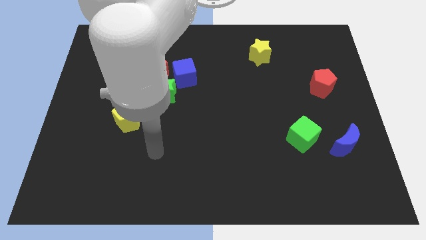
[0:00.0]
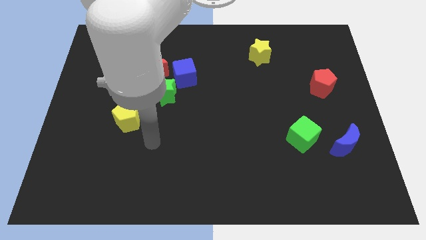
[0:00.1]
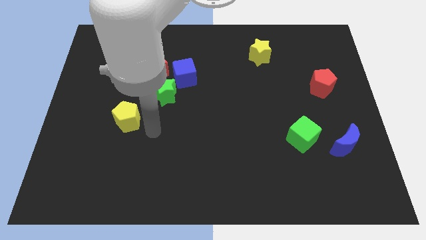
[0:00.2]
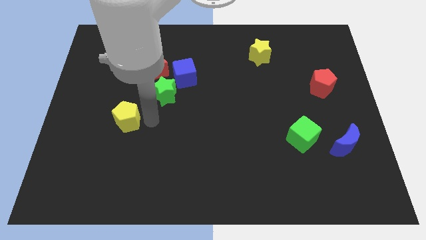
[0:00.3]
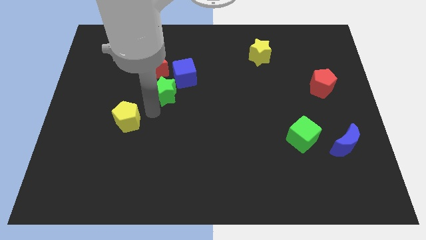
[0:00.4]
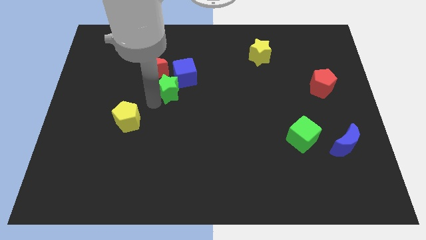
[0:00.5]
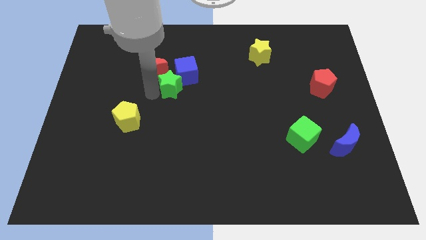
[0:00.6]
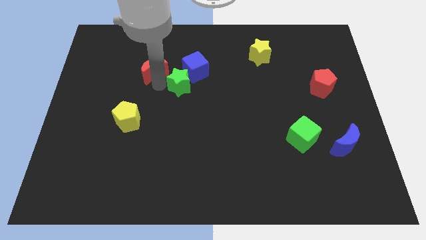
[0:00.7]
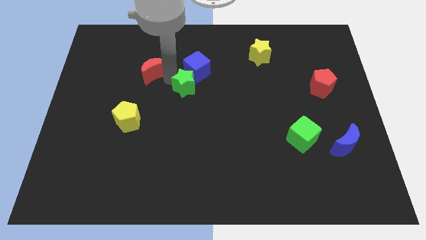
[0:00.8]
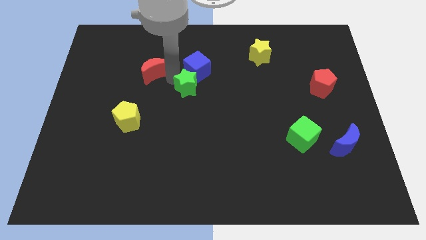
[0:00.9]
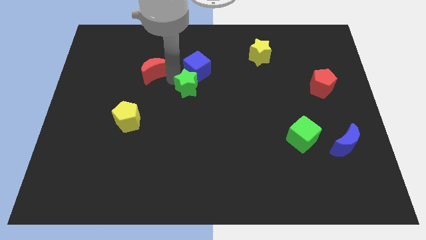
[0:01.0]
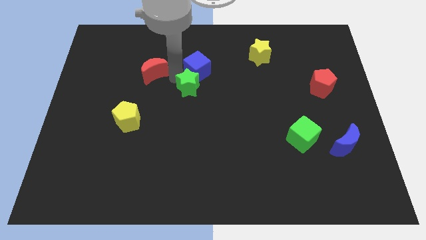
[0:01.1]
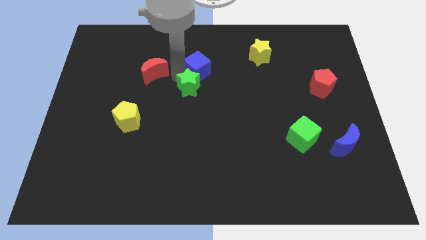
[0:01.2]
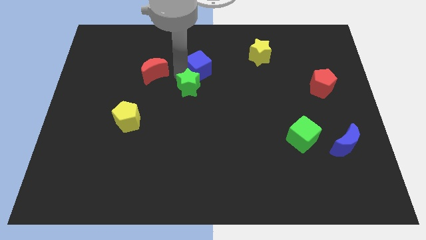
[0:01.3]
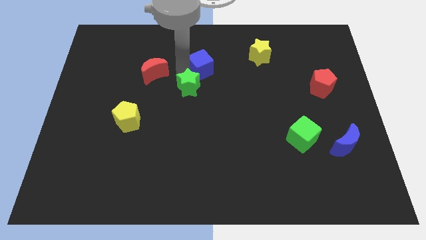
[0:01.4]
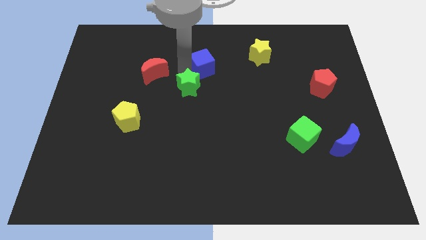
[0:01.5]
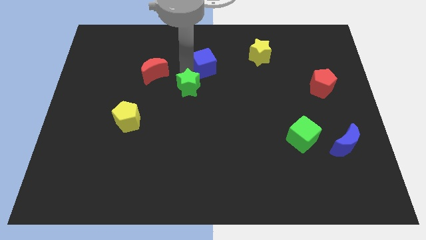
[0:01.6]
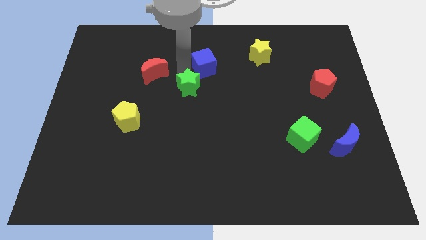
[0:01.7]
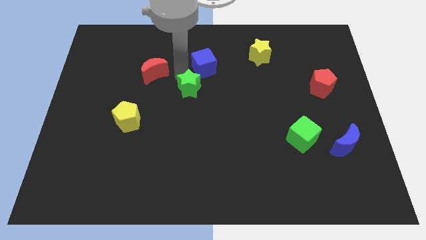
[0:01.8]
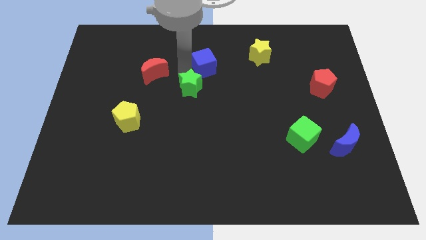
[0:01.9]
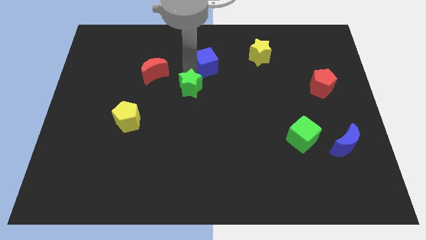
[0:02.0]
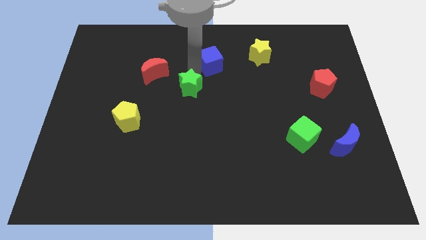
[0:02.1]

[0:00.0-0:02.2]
separate the blue cube from the green star and red moon

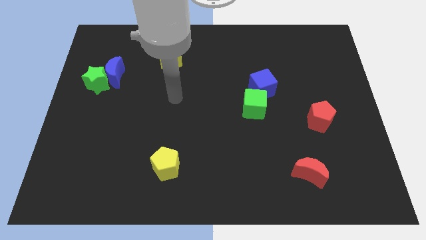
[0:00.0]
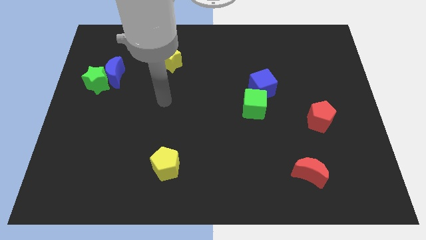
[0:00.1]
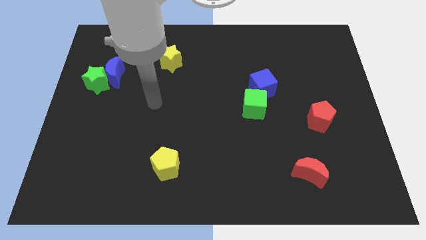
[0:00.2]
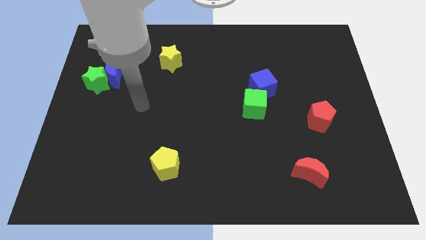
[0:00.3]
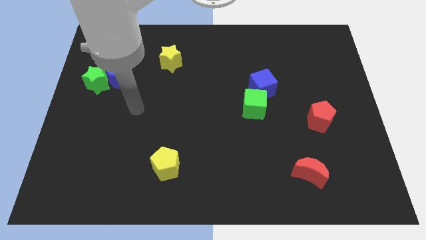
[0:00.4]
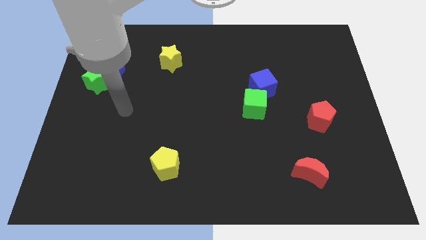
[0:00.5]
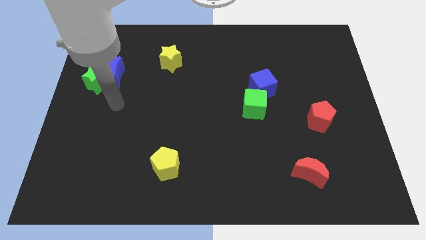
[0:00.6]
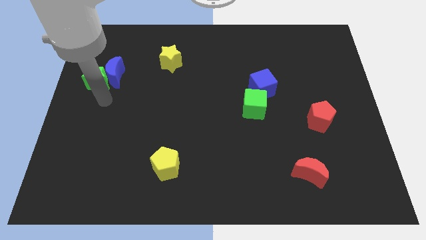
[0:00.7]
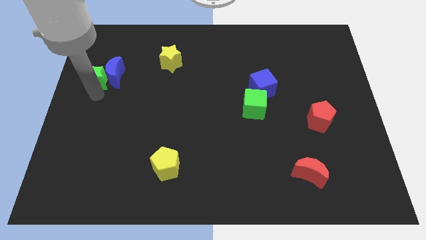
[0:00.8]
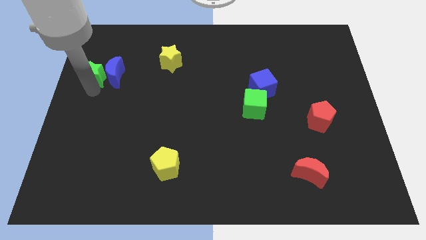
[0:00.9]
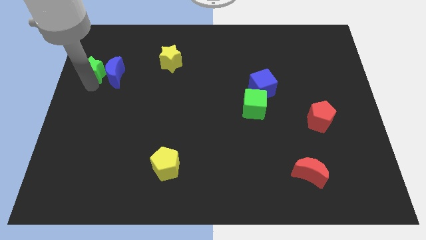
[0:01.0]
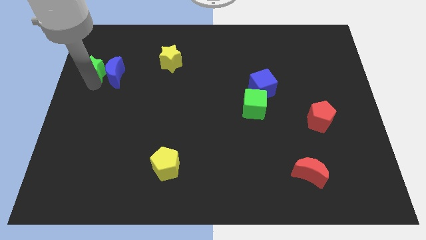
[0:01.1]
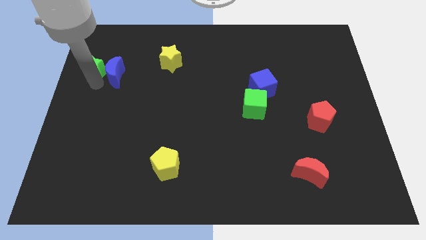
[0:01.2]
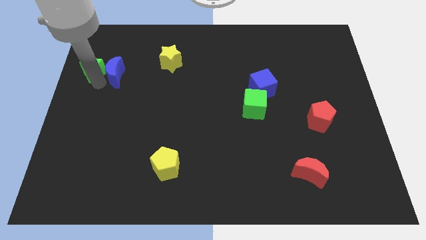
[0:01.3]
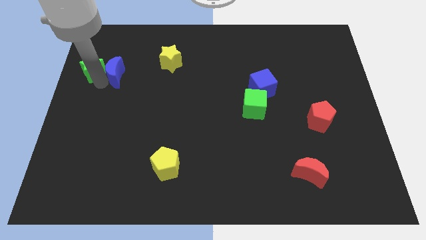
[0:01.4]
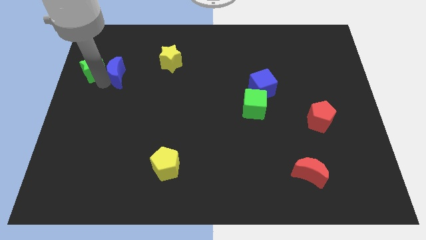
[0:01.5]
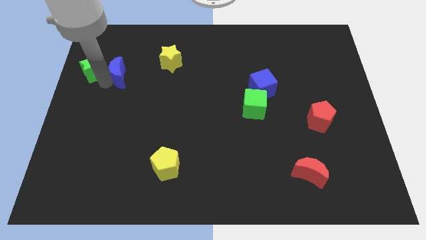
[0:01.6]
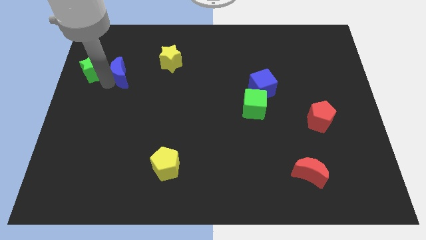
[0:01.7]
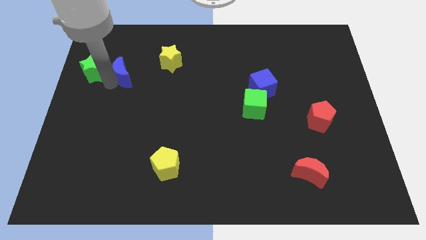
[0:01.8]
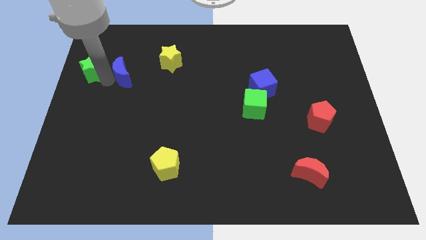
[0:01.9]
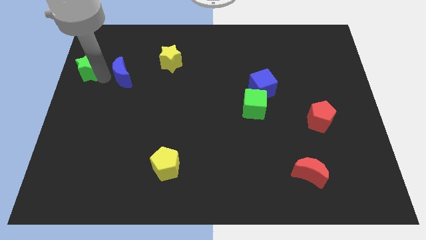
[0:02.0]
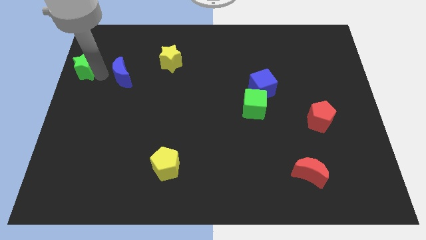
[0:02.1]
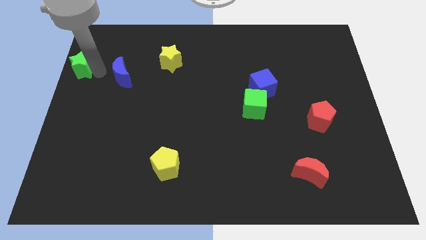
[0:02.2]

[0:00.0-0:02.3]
pull the blue moon apart from the green star

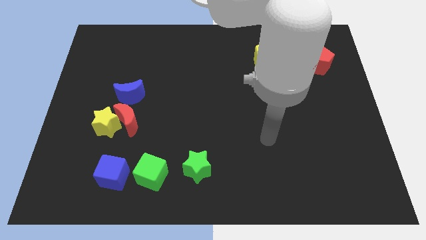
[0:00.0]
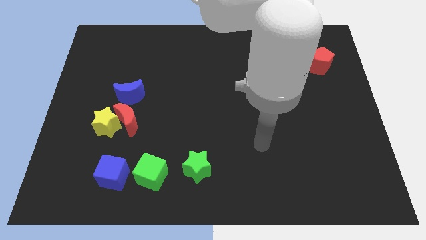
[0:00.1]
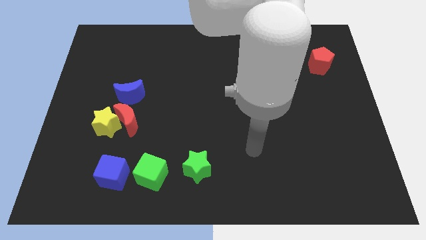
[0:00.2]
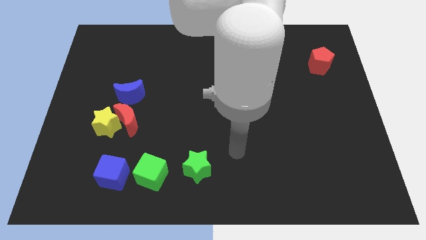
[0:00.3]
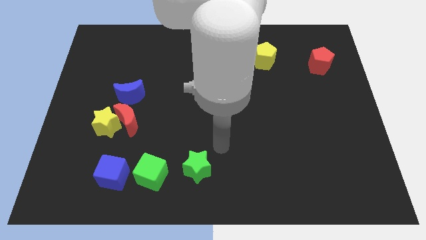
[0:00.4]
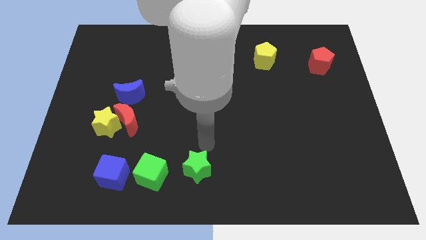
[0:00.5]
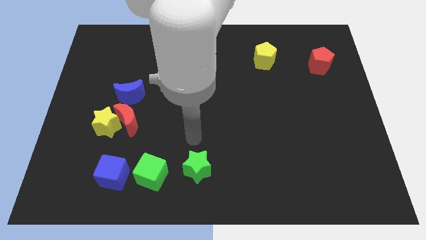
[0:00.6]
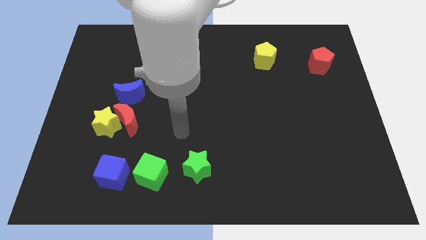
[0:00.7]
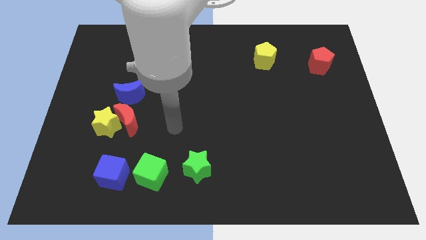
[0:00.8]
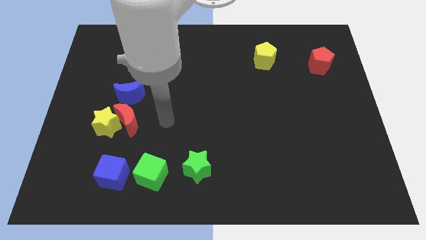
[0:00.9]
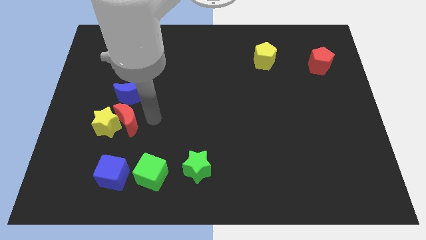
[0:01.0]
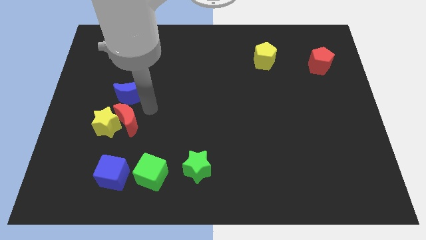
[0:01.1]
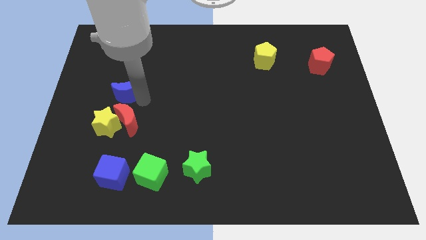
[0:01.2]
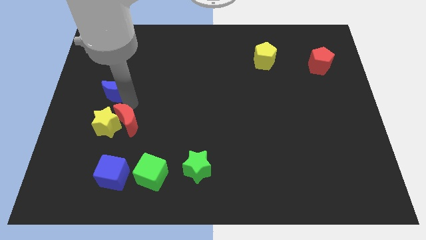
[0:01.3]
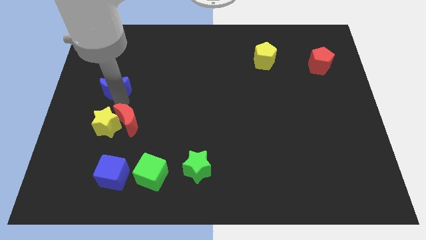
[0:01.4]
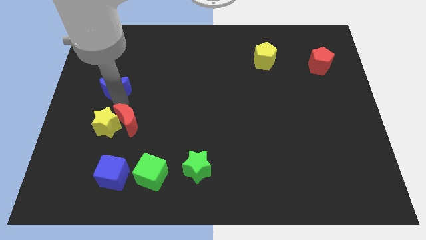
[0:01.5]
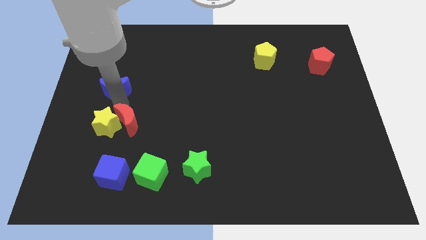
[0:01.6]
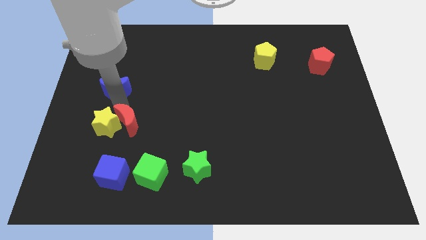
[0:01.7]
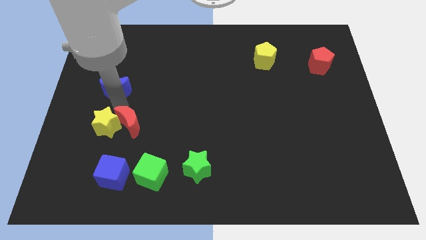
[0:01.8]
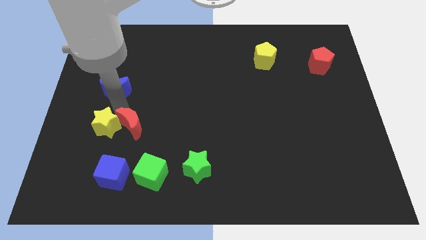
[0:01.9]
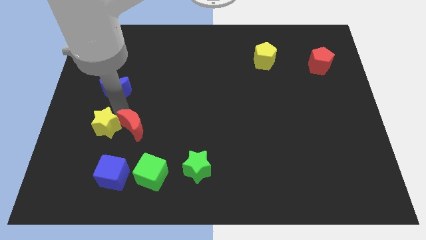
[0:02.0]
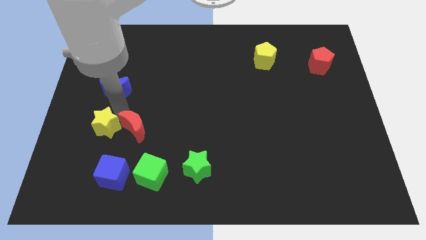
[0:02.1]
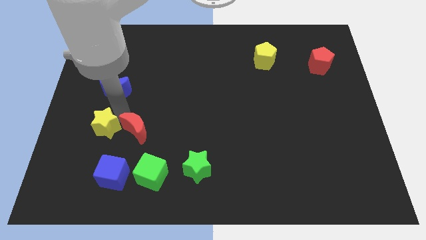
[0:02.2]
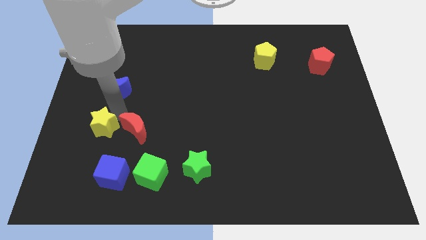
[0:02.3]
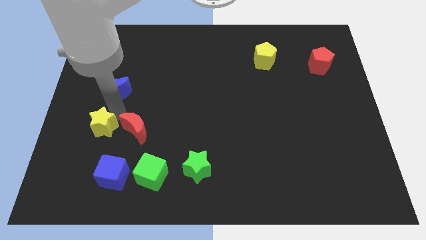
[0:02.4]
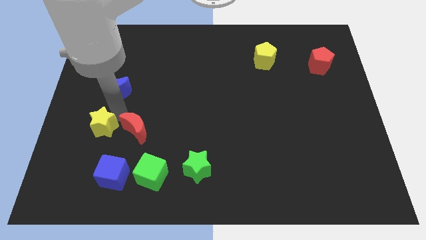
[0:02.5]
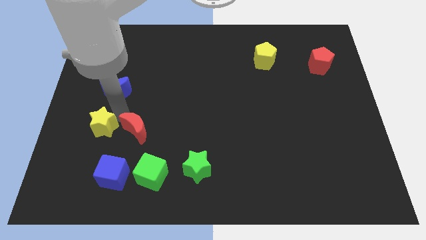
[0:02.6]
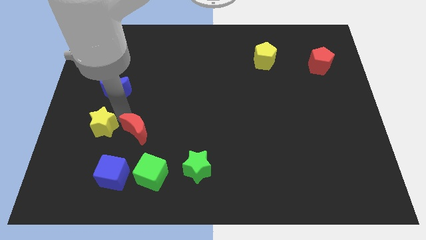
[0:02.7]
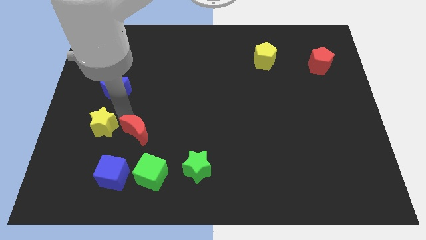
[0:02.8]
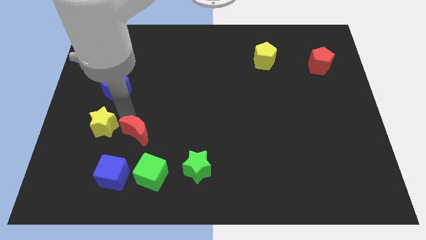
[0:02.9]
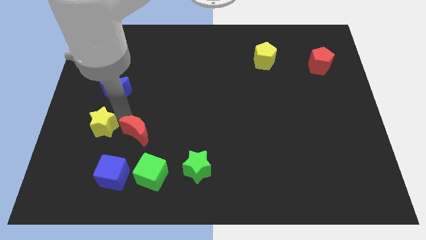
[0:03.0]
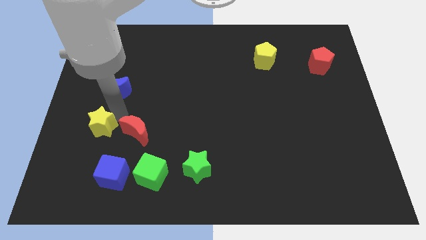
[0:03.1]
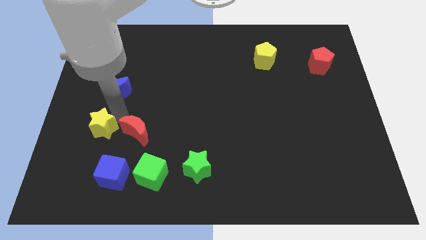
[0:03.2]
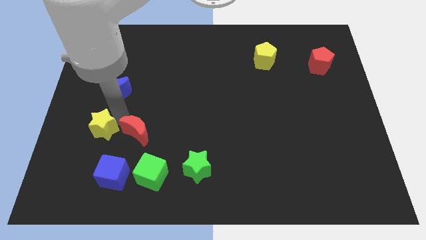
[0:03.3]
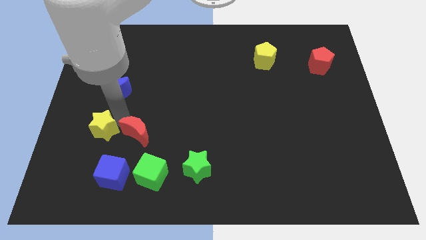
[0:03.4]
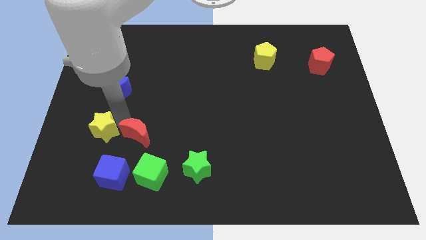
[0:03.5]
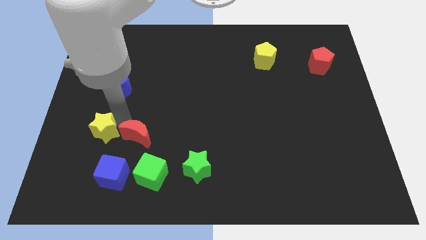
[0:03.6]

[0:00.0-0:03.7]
move the red moon away from the yellow star and blue moon

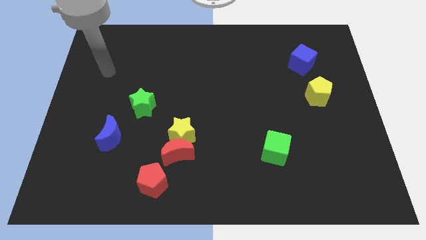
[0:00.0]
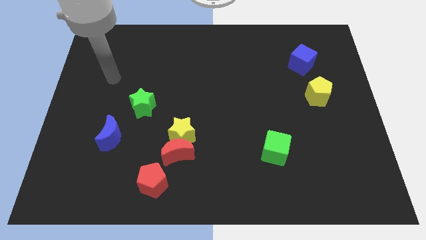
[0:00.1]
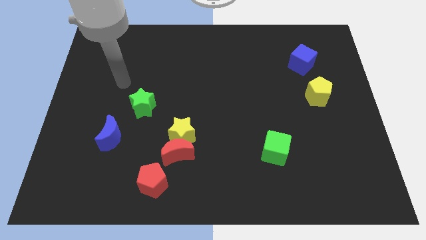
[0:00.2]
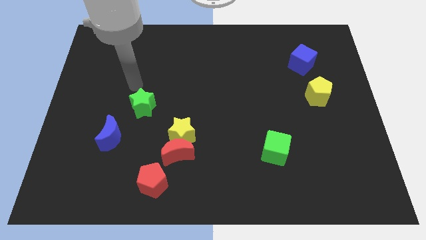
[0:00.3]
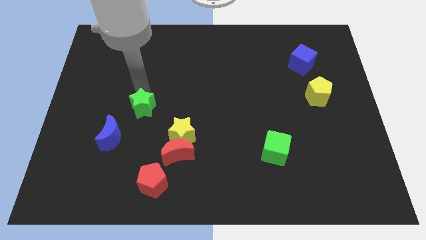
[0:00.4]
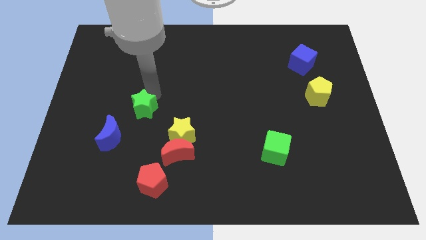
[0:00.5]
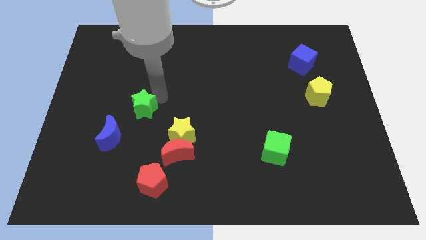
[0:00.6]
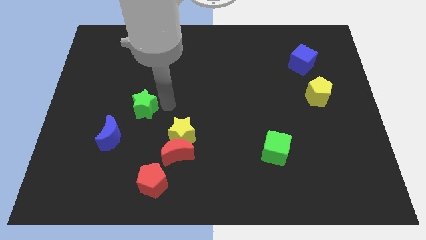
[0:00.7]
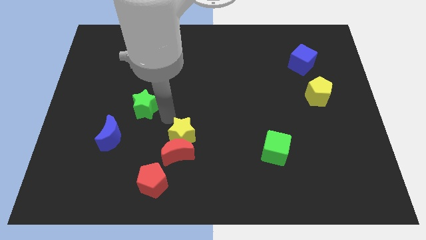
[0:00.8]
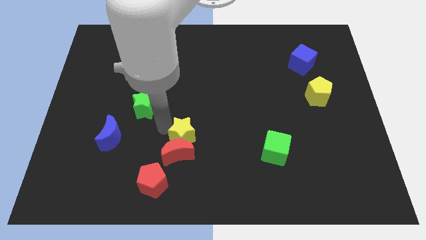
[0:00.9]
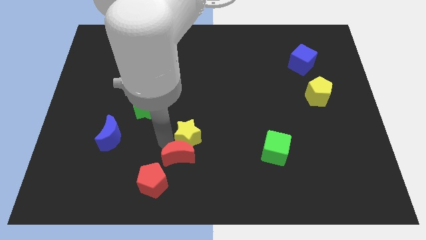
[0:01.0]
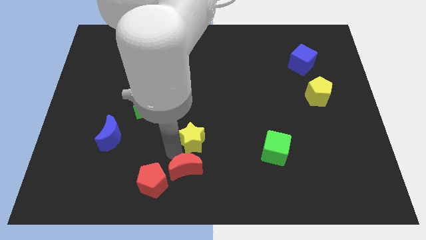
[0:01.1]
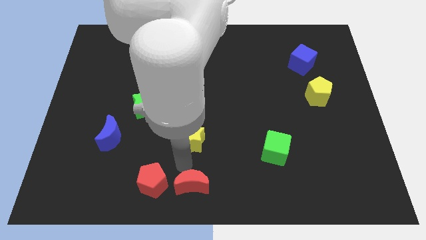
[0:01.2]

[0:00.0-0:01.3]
pull the yellow star apart from the red moon

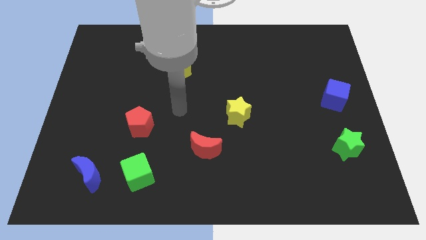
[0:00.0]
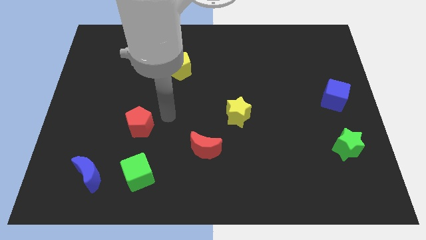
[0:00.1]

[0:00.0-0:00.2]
pull the blue moon apart from the green cube
